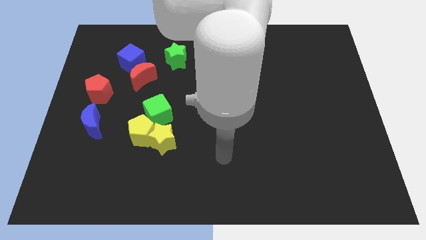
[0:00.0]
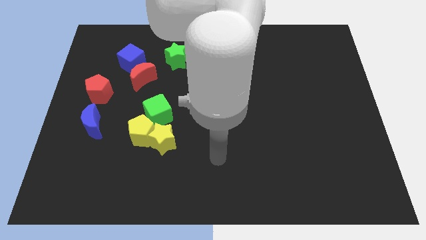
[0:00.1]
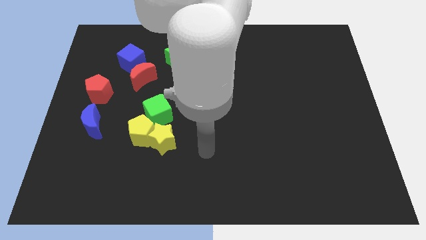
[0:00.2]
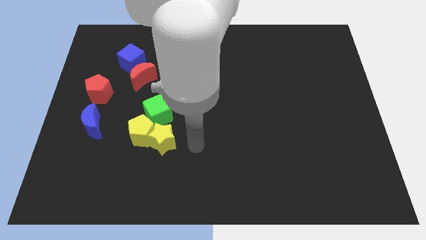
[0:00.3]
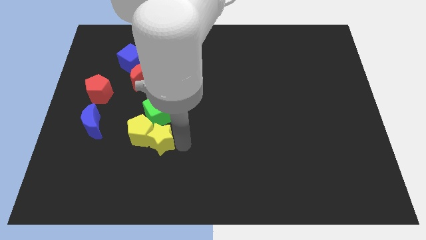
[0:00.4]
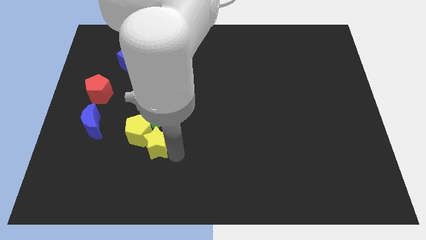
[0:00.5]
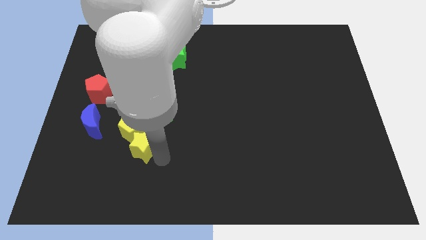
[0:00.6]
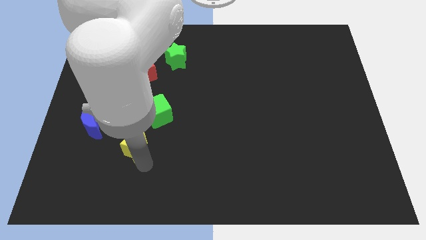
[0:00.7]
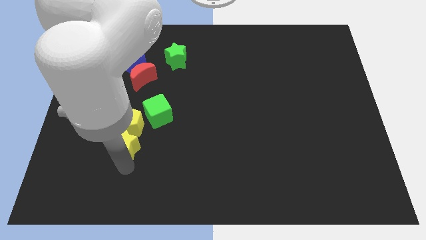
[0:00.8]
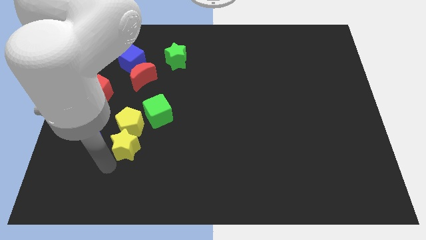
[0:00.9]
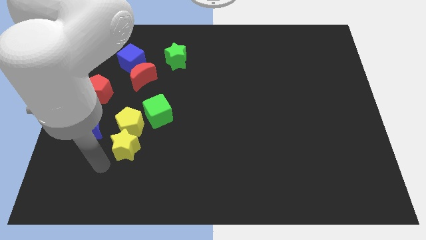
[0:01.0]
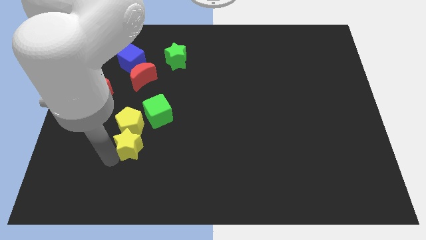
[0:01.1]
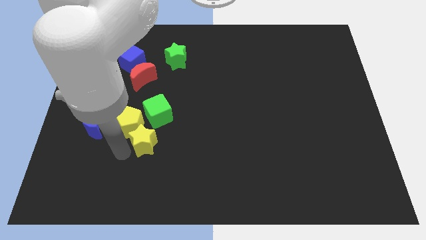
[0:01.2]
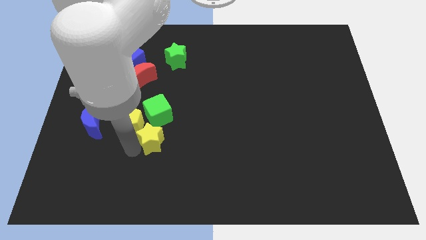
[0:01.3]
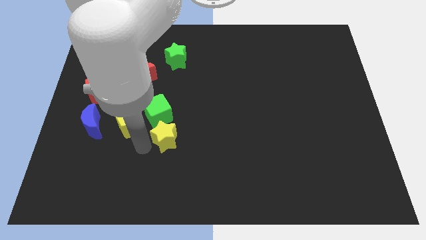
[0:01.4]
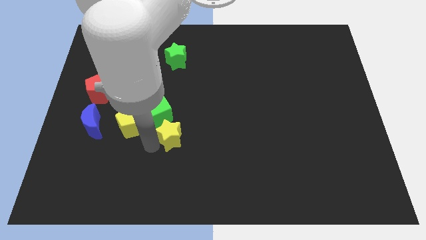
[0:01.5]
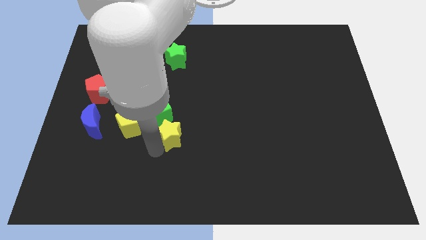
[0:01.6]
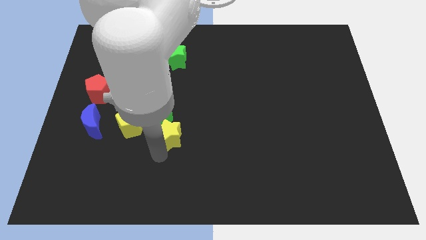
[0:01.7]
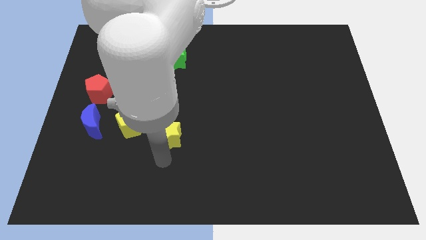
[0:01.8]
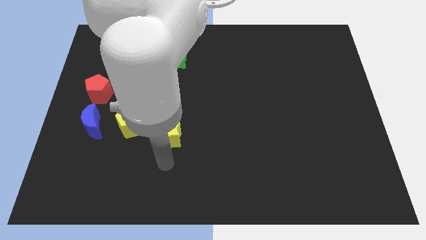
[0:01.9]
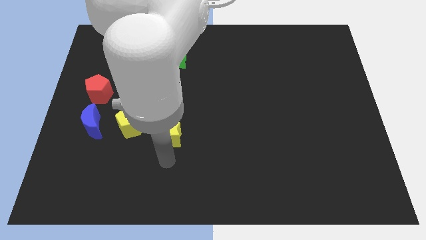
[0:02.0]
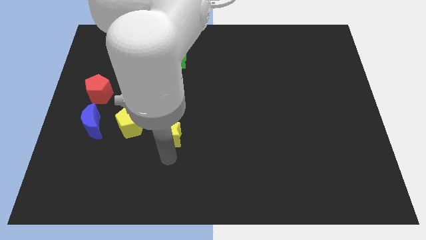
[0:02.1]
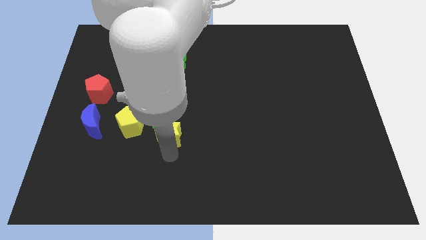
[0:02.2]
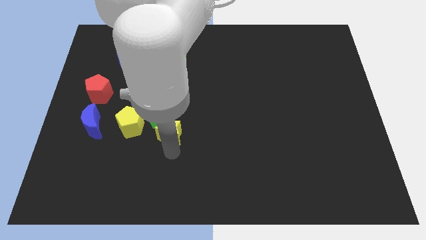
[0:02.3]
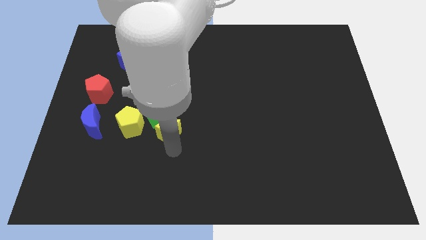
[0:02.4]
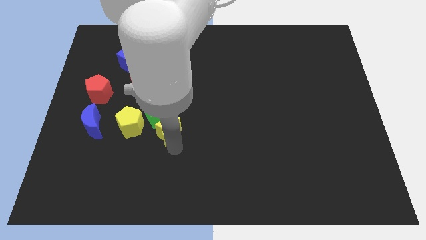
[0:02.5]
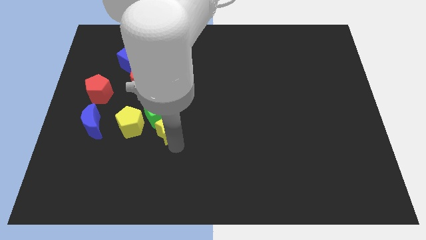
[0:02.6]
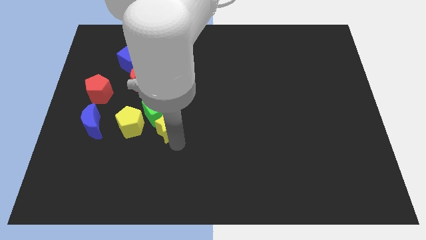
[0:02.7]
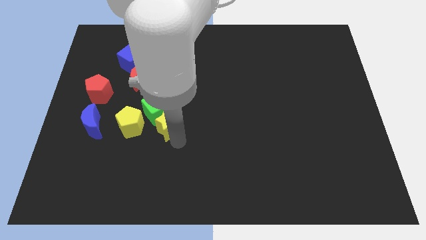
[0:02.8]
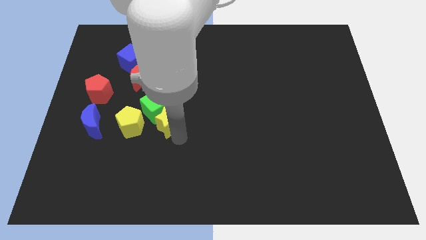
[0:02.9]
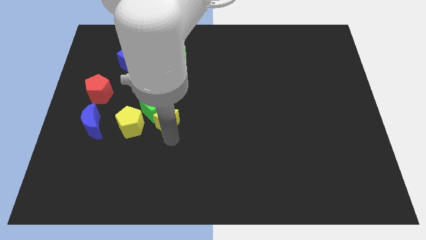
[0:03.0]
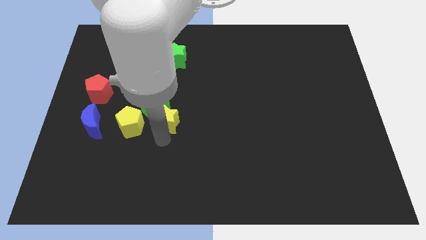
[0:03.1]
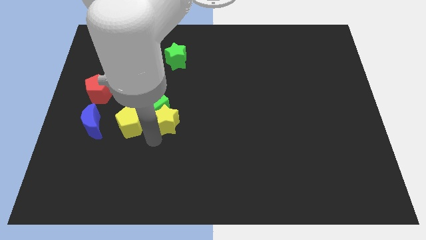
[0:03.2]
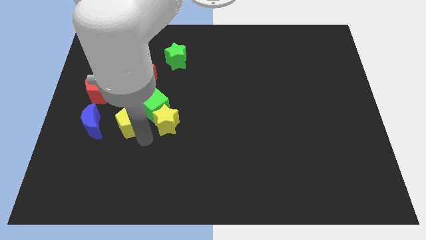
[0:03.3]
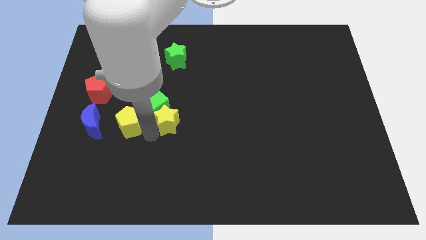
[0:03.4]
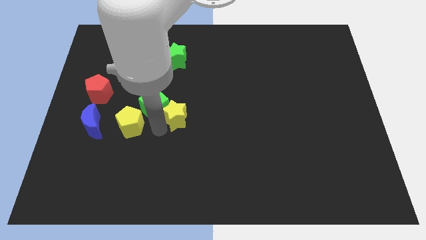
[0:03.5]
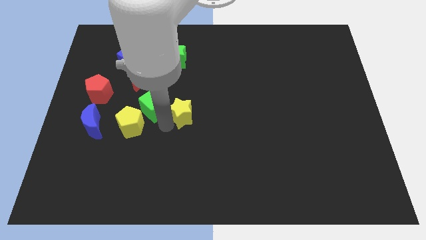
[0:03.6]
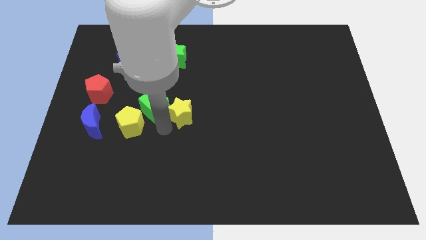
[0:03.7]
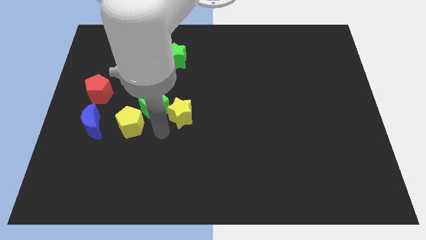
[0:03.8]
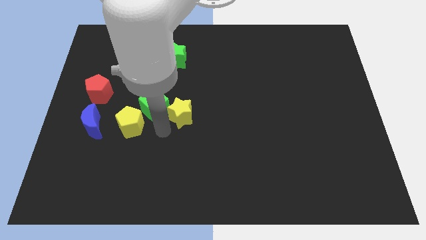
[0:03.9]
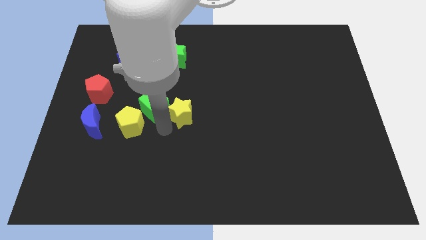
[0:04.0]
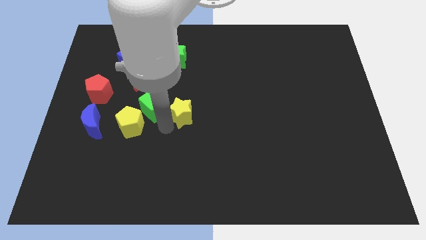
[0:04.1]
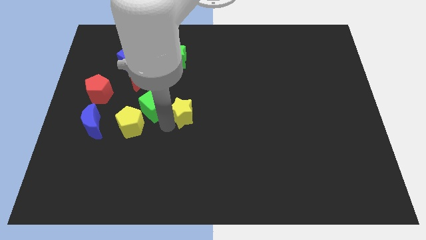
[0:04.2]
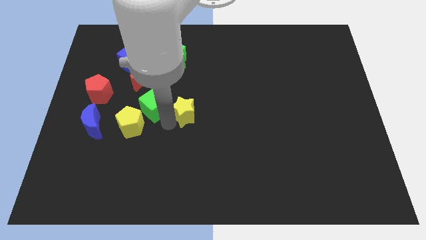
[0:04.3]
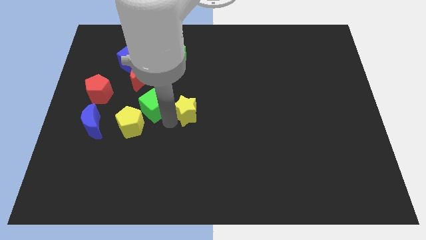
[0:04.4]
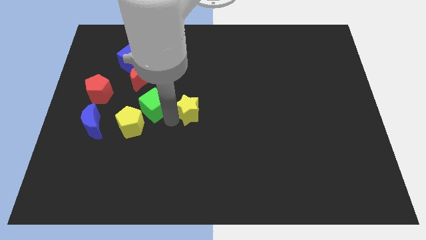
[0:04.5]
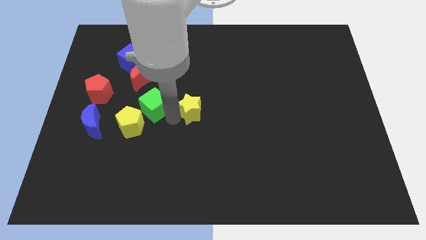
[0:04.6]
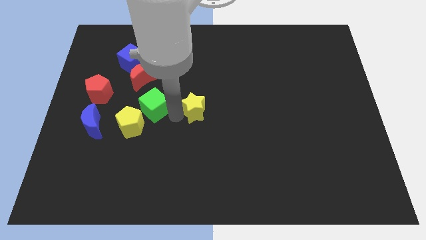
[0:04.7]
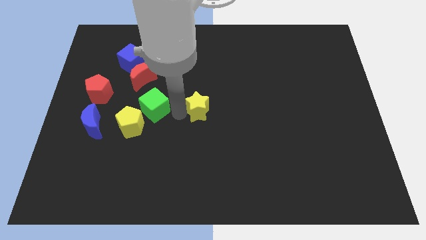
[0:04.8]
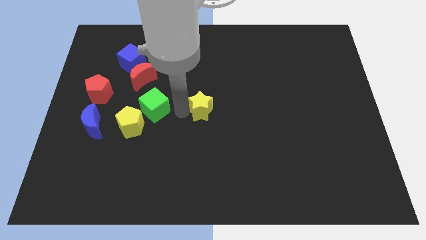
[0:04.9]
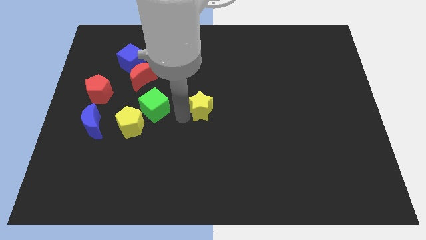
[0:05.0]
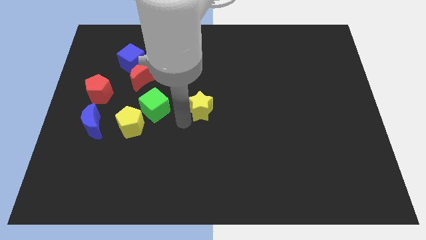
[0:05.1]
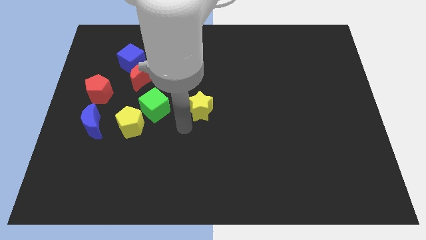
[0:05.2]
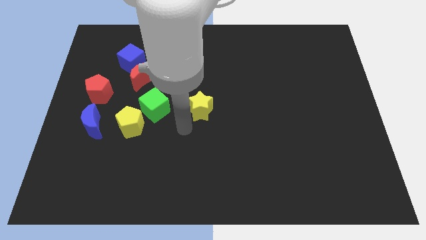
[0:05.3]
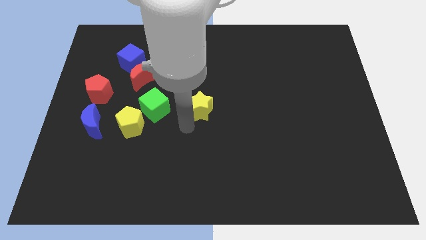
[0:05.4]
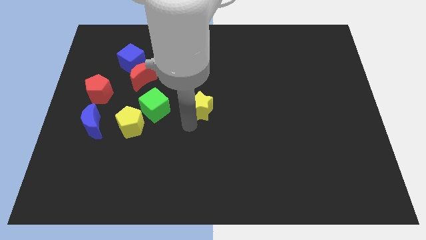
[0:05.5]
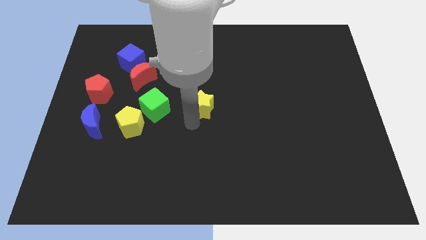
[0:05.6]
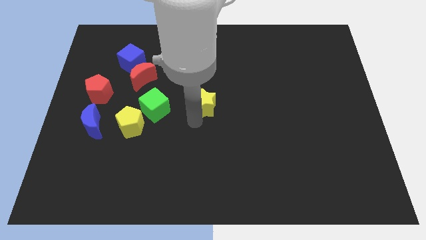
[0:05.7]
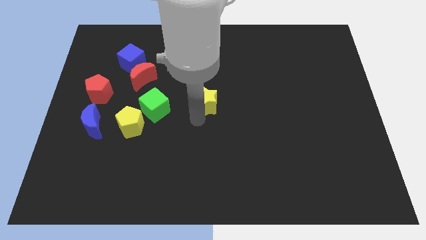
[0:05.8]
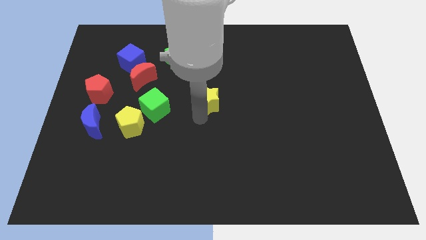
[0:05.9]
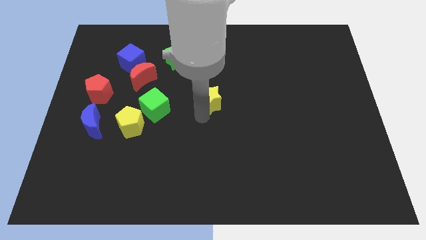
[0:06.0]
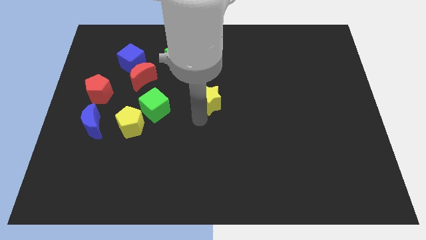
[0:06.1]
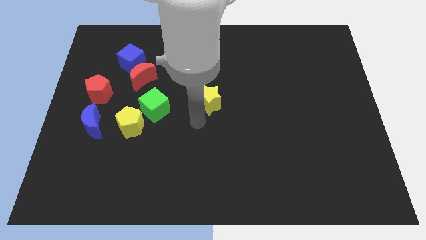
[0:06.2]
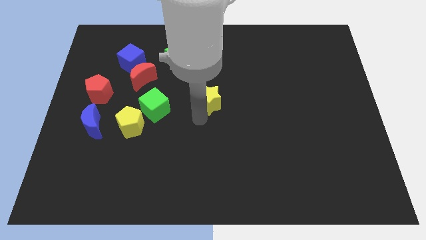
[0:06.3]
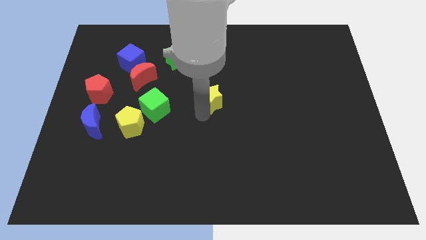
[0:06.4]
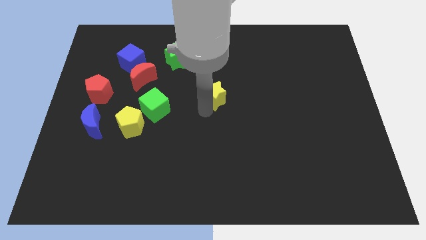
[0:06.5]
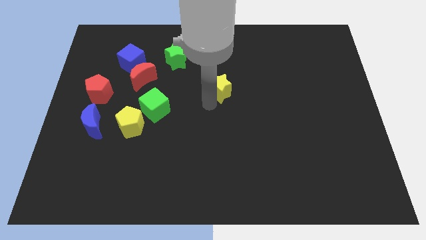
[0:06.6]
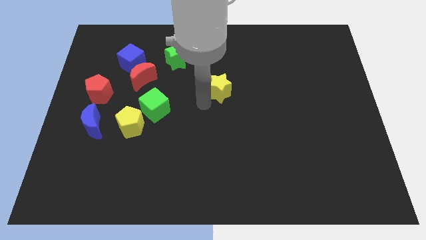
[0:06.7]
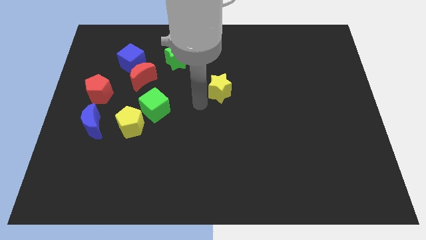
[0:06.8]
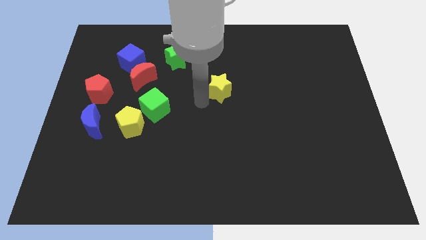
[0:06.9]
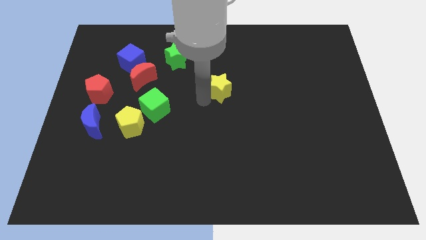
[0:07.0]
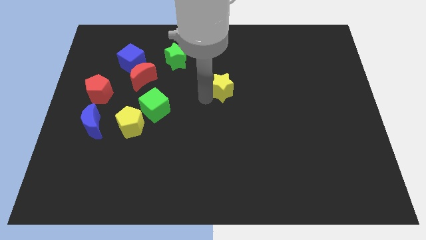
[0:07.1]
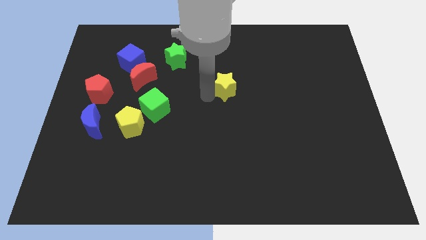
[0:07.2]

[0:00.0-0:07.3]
slide the yellow star up and then right

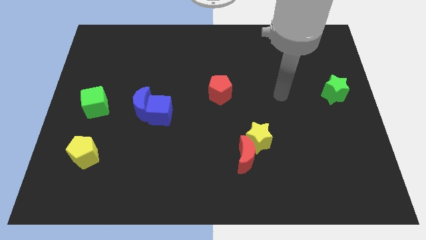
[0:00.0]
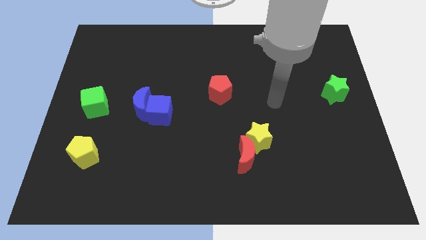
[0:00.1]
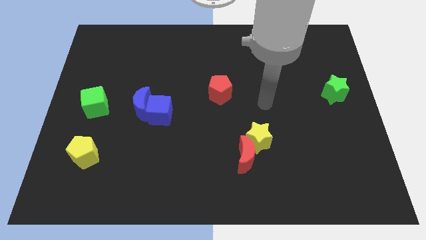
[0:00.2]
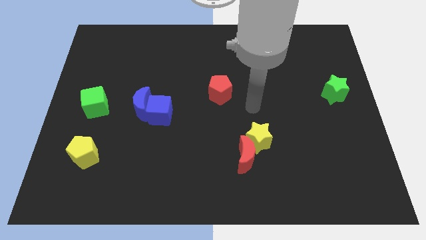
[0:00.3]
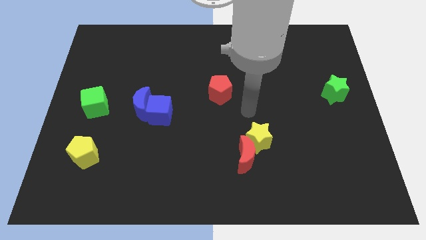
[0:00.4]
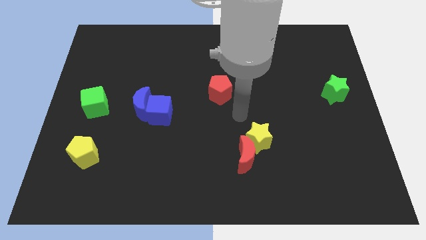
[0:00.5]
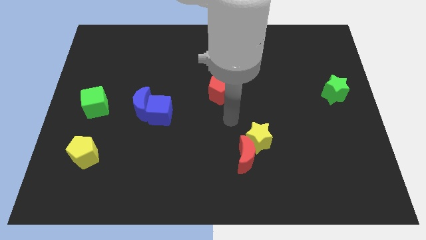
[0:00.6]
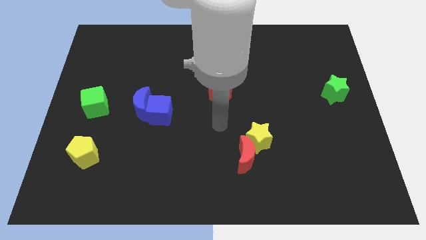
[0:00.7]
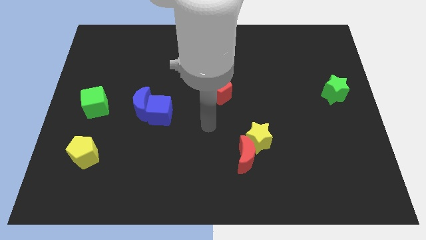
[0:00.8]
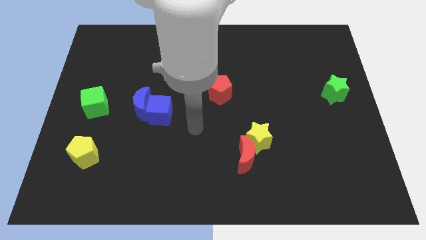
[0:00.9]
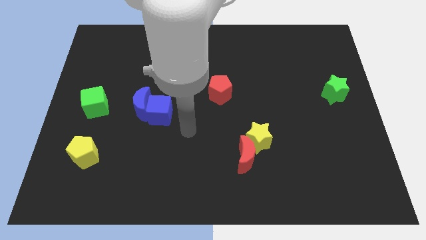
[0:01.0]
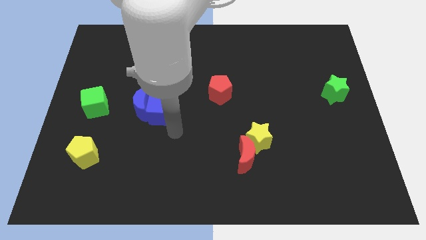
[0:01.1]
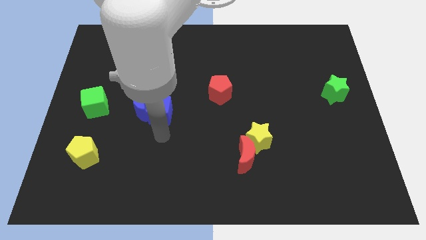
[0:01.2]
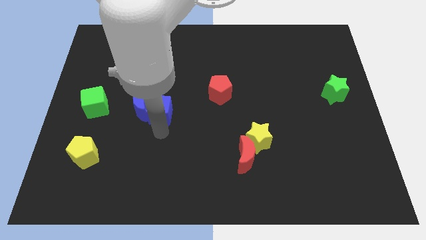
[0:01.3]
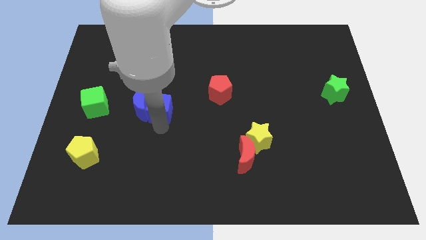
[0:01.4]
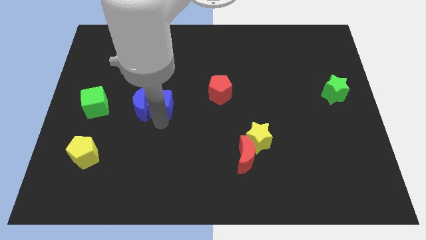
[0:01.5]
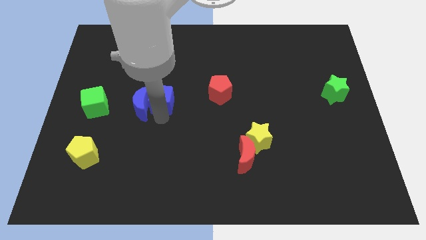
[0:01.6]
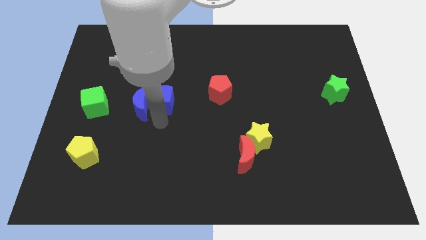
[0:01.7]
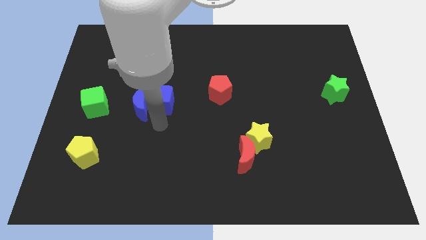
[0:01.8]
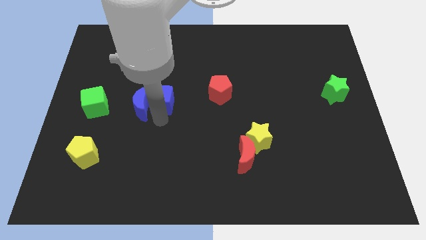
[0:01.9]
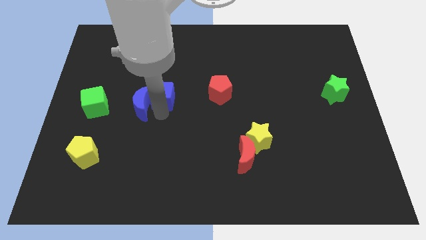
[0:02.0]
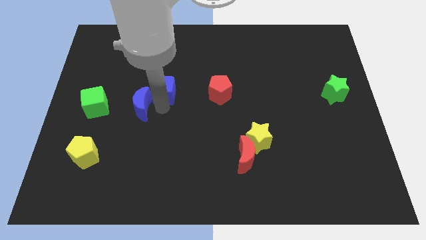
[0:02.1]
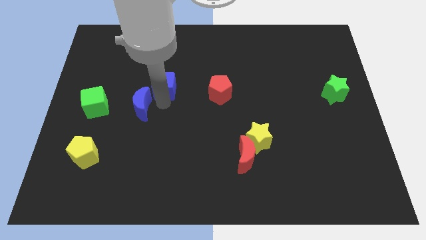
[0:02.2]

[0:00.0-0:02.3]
push the blue cube upwards a little bit
